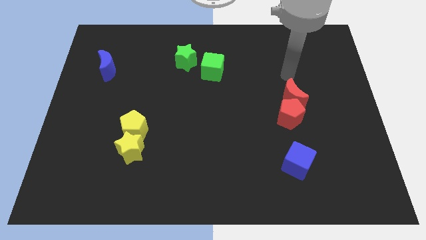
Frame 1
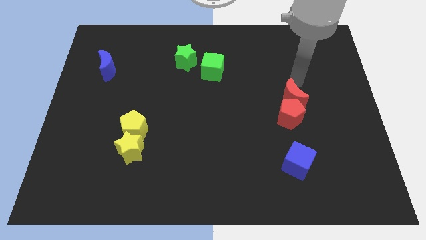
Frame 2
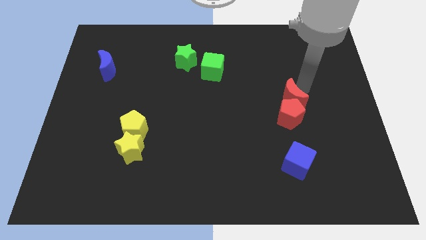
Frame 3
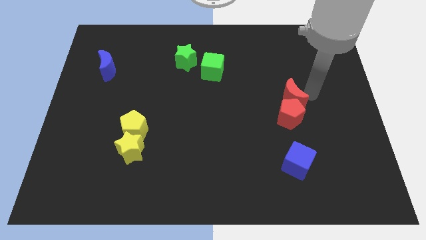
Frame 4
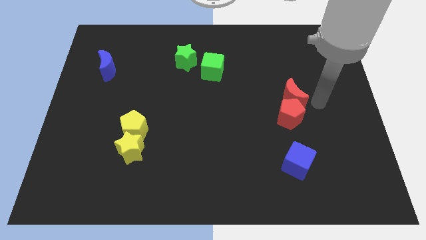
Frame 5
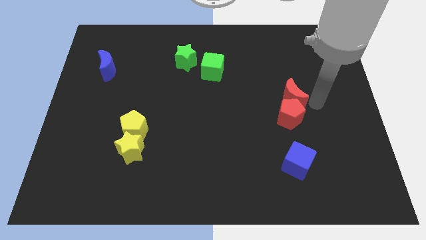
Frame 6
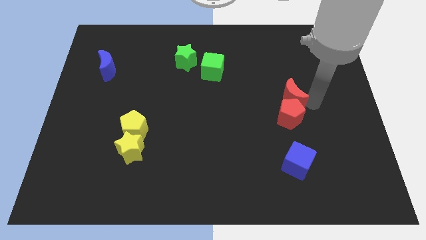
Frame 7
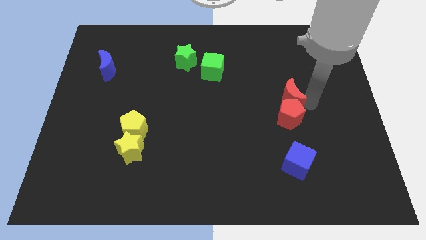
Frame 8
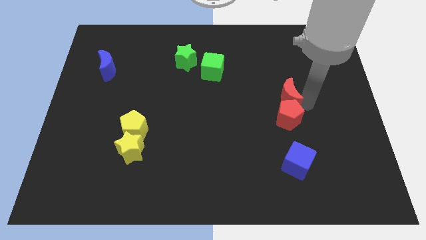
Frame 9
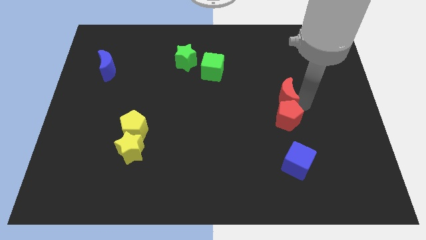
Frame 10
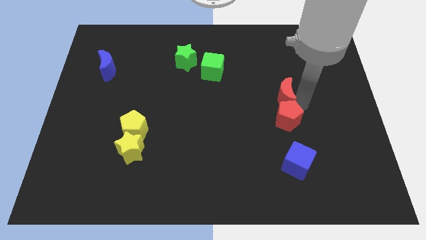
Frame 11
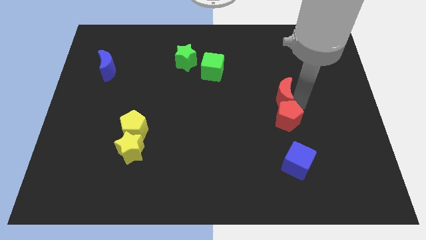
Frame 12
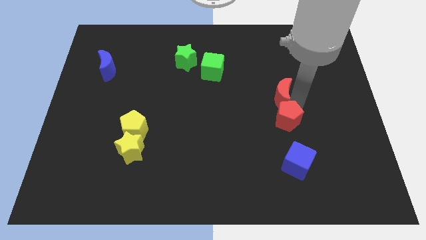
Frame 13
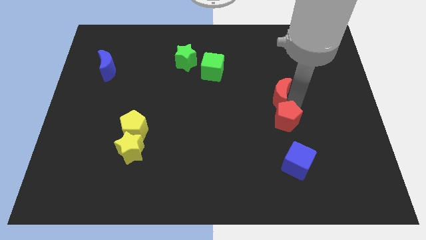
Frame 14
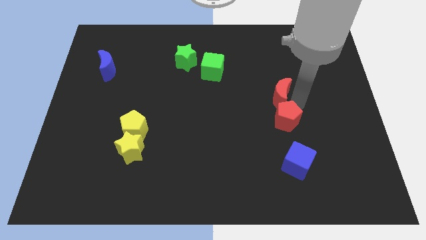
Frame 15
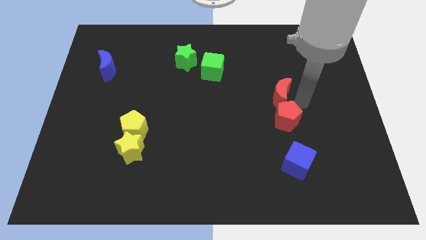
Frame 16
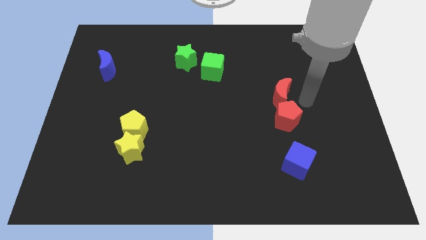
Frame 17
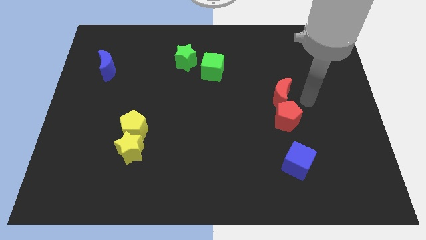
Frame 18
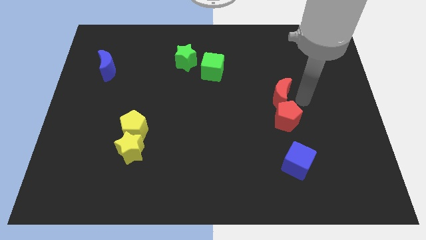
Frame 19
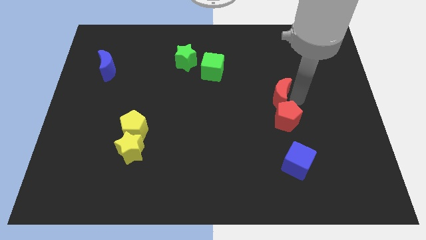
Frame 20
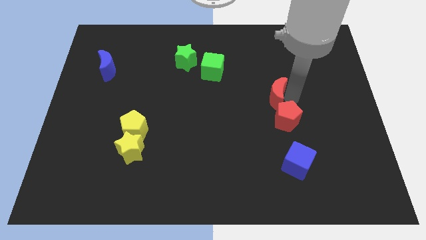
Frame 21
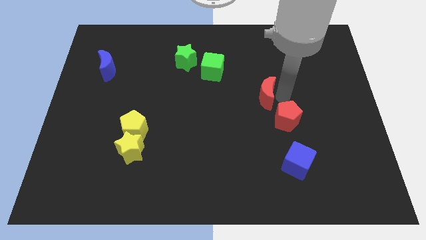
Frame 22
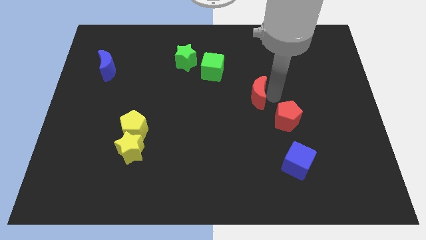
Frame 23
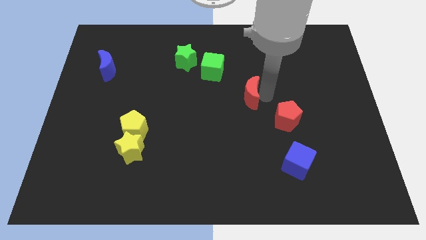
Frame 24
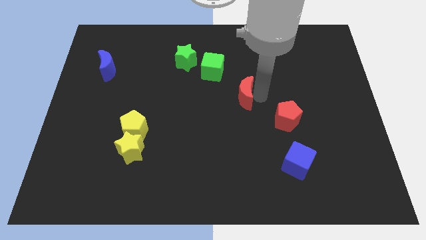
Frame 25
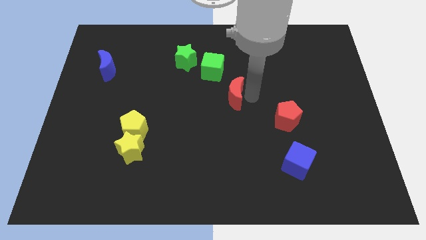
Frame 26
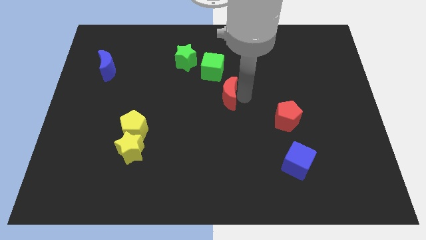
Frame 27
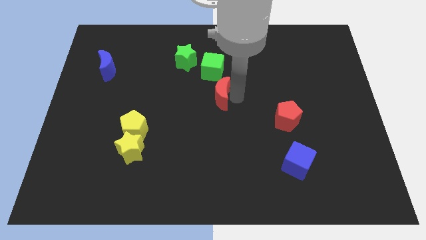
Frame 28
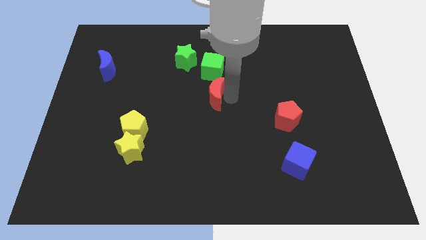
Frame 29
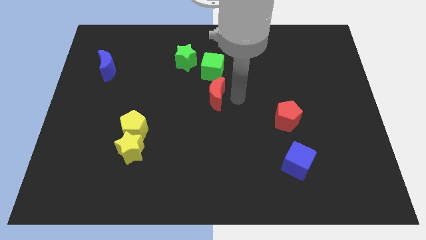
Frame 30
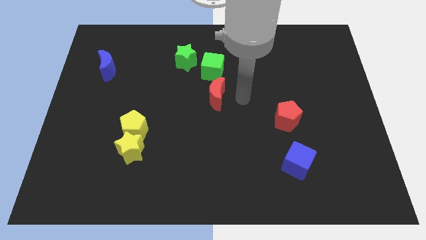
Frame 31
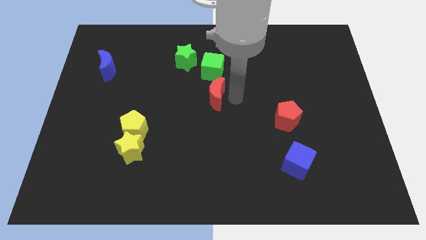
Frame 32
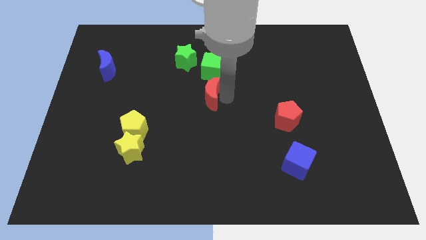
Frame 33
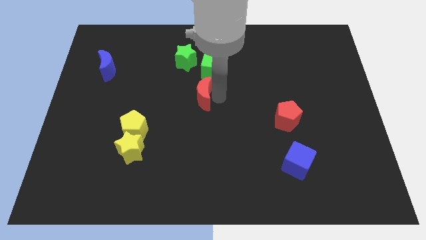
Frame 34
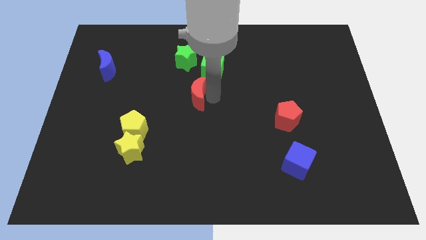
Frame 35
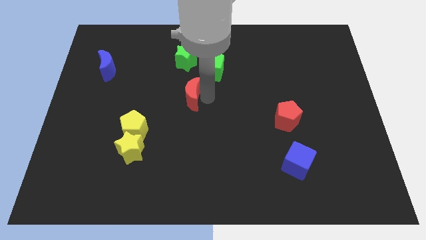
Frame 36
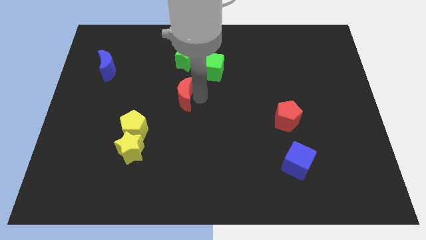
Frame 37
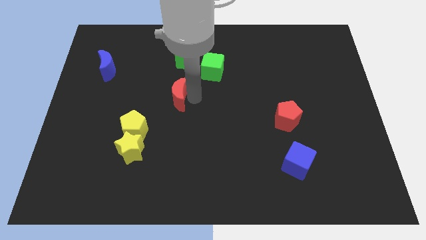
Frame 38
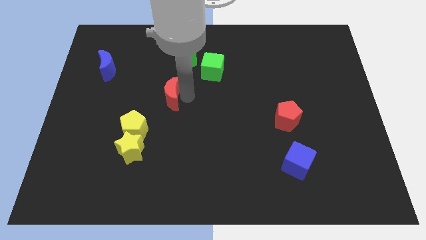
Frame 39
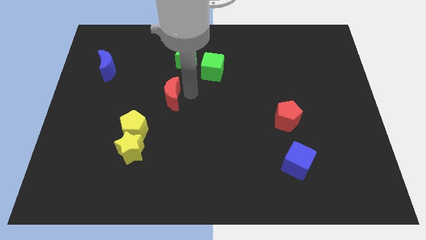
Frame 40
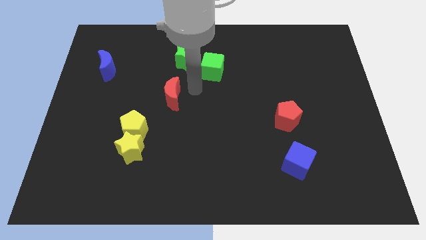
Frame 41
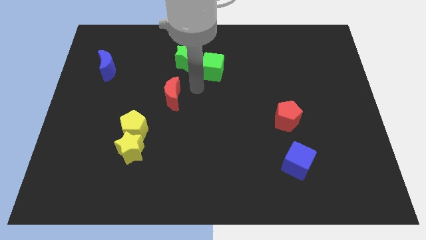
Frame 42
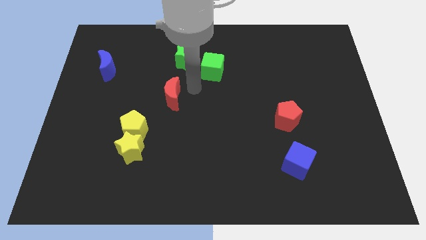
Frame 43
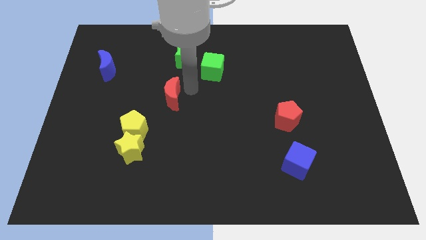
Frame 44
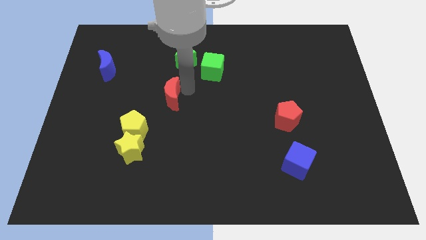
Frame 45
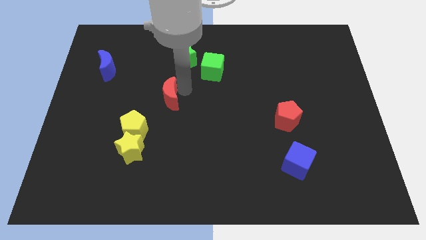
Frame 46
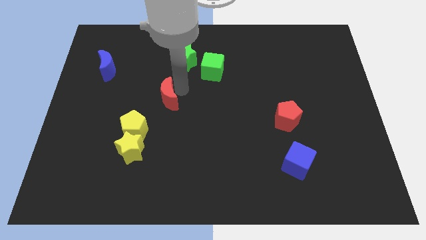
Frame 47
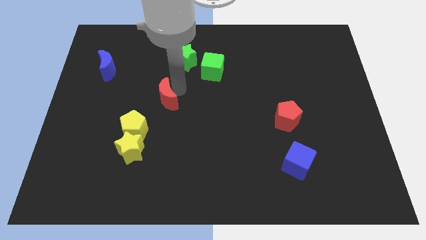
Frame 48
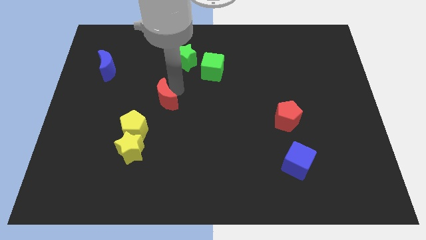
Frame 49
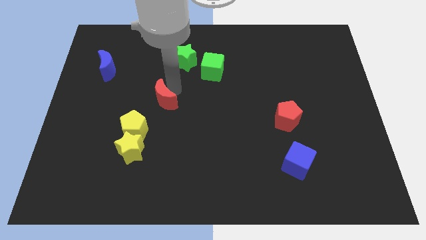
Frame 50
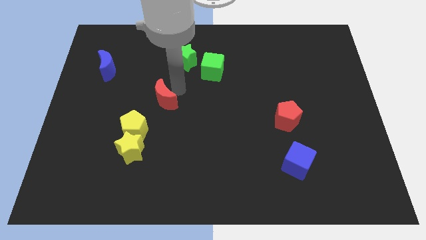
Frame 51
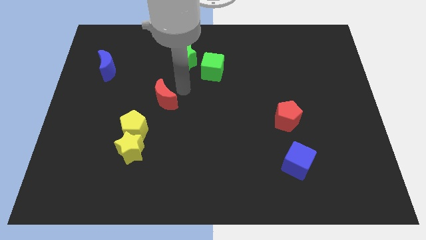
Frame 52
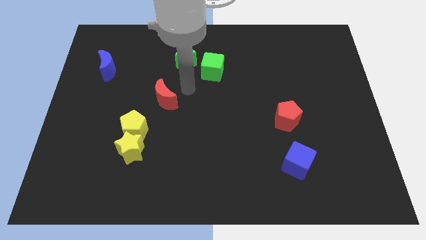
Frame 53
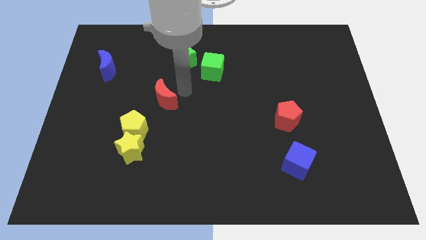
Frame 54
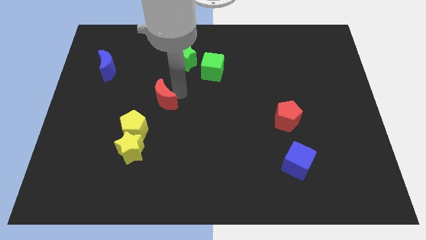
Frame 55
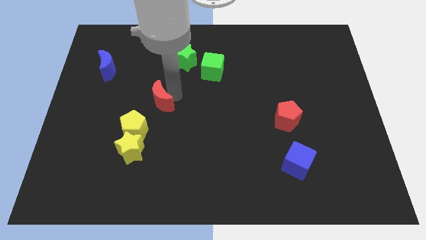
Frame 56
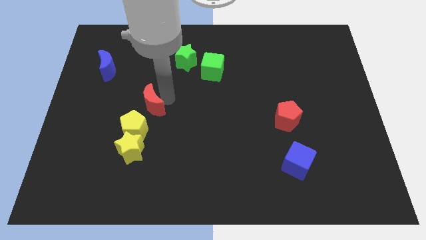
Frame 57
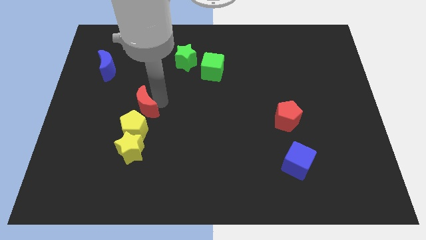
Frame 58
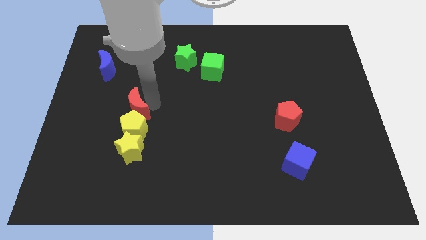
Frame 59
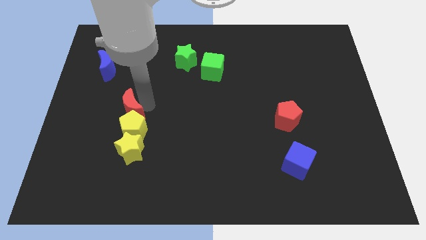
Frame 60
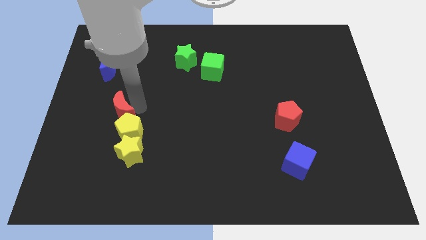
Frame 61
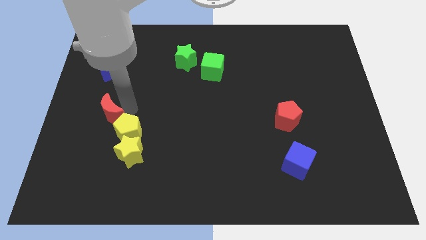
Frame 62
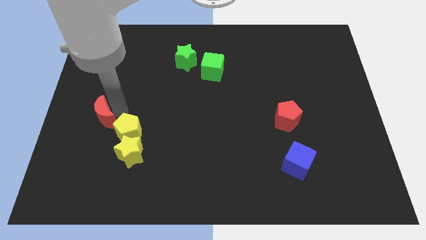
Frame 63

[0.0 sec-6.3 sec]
push the red moon left of the yellow pentagon

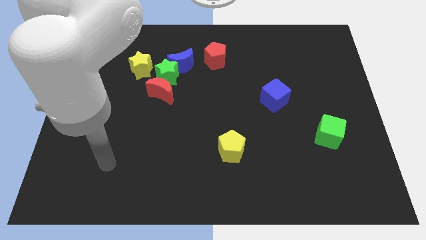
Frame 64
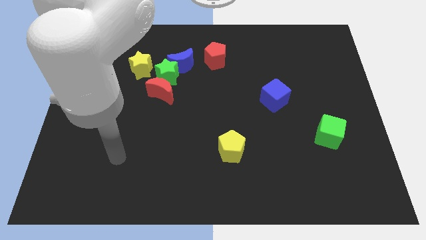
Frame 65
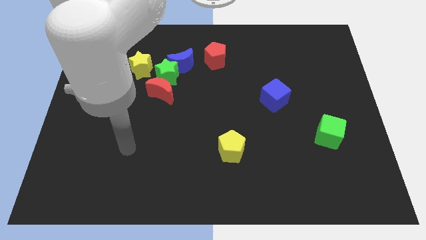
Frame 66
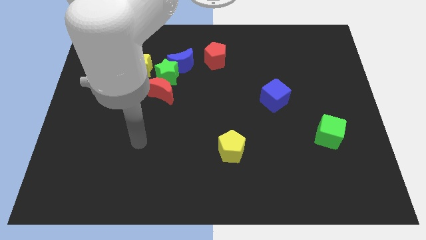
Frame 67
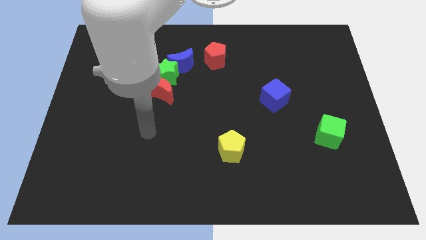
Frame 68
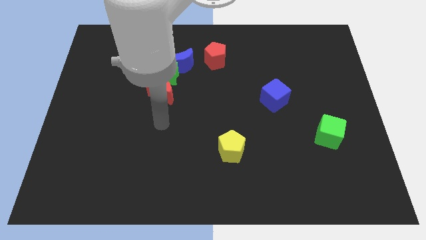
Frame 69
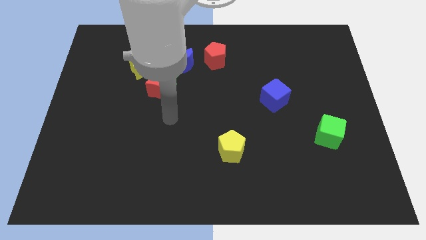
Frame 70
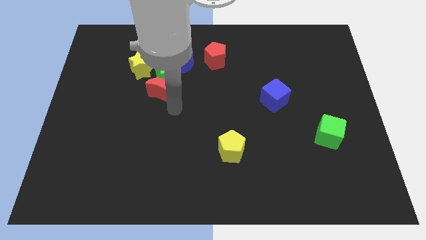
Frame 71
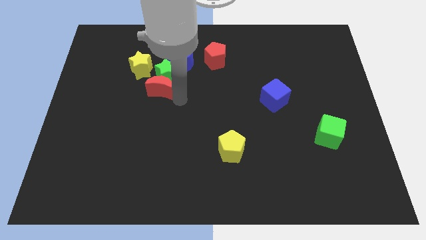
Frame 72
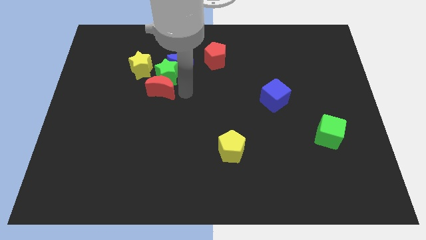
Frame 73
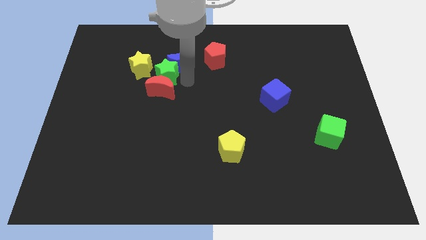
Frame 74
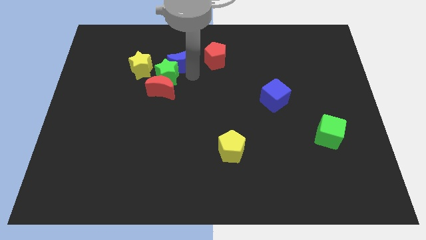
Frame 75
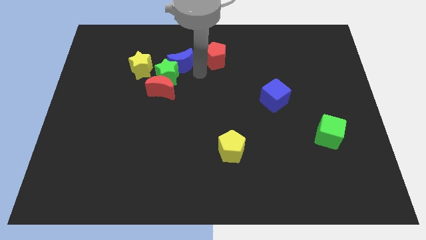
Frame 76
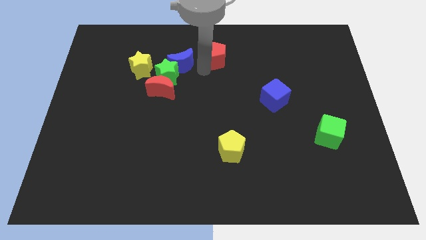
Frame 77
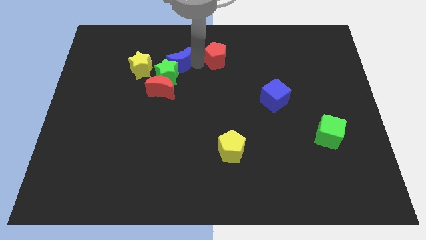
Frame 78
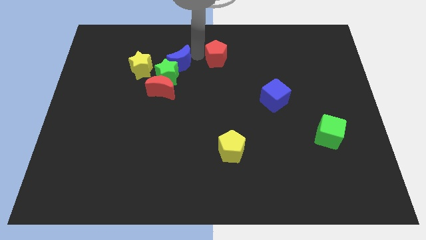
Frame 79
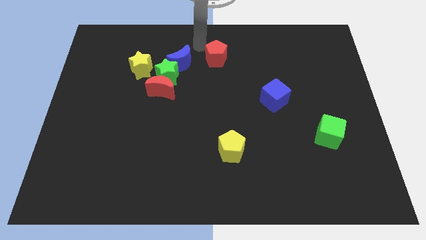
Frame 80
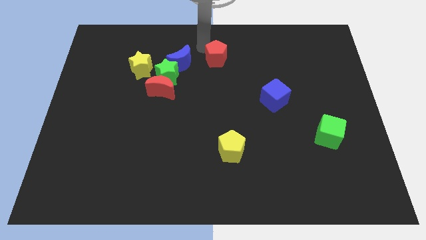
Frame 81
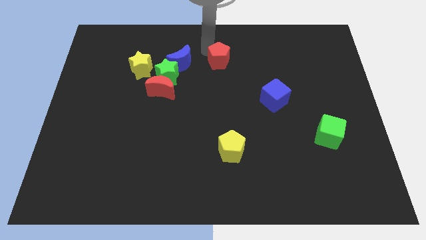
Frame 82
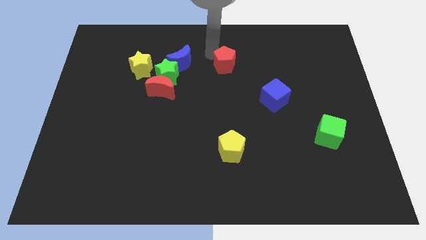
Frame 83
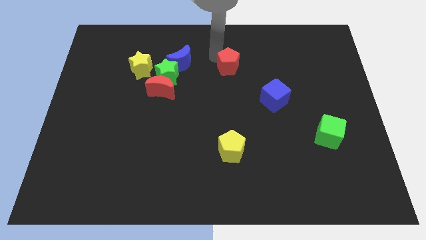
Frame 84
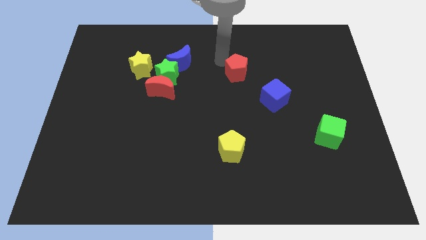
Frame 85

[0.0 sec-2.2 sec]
put the red pentagon to the top left of the blue cube
